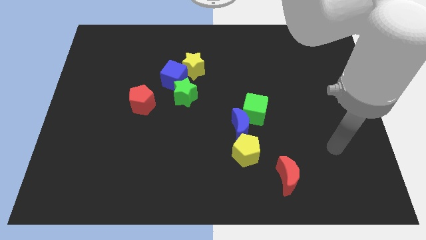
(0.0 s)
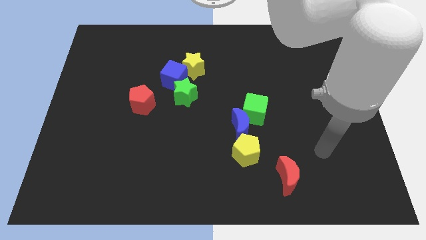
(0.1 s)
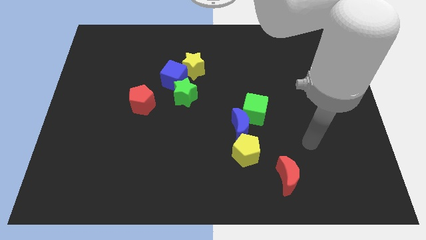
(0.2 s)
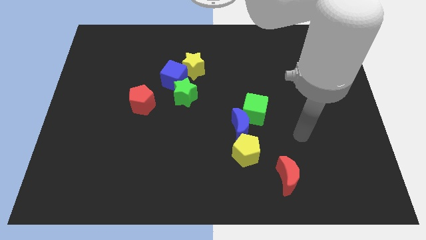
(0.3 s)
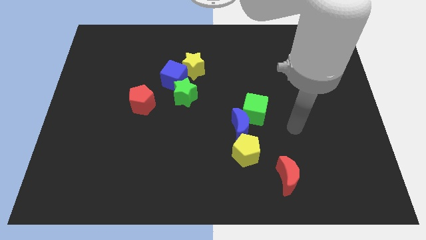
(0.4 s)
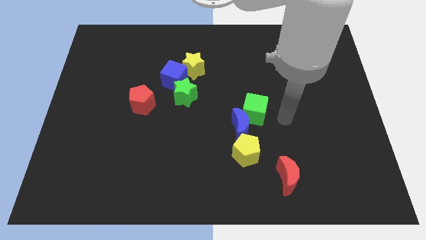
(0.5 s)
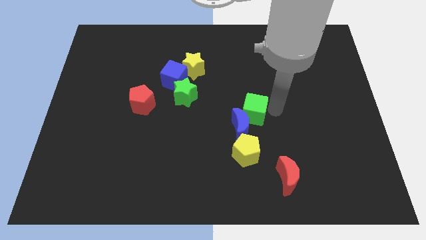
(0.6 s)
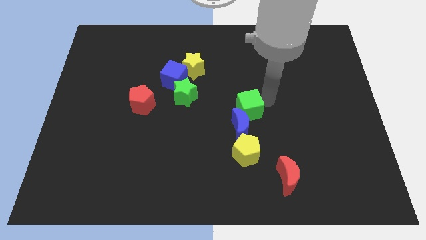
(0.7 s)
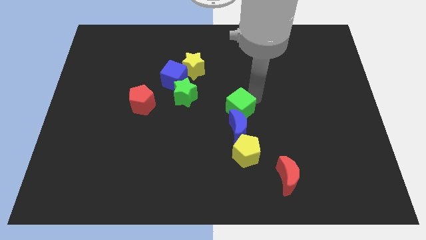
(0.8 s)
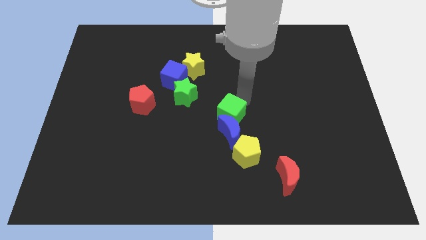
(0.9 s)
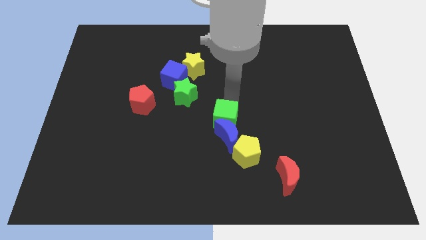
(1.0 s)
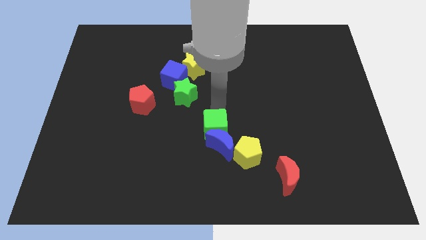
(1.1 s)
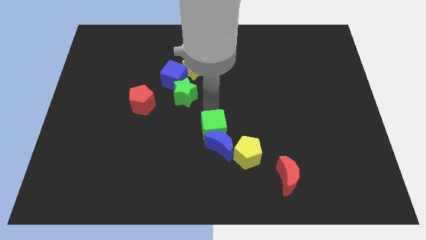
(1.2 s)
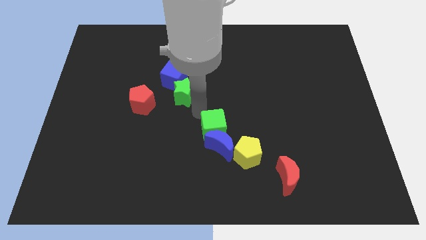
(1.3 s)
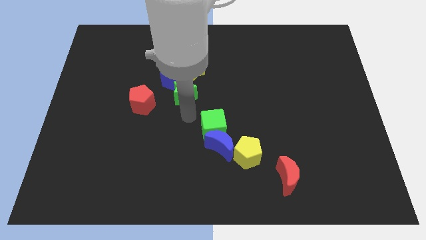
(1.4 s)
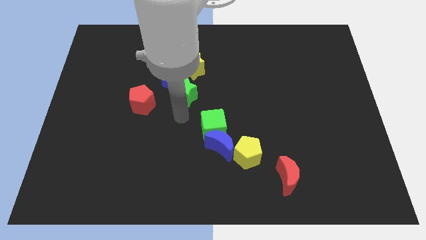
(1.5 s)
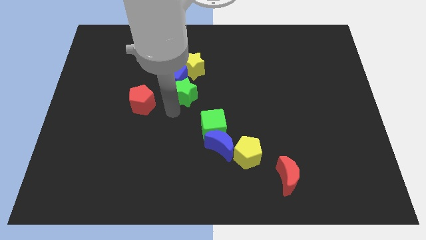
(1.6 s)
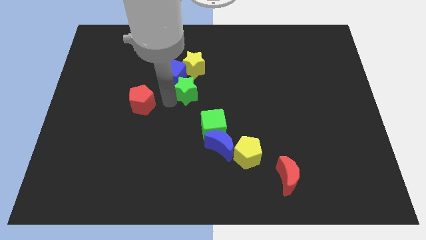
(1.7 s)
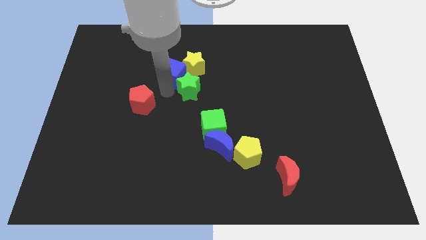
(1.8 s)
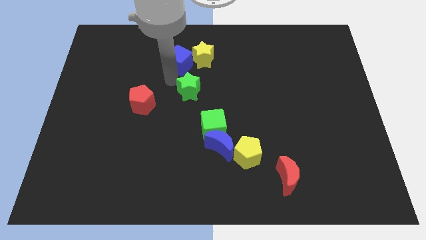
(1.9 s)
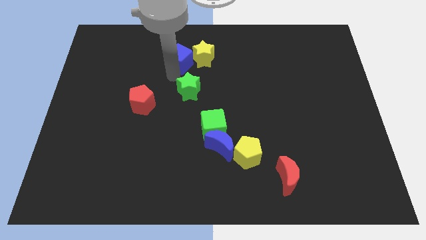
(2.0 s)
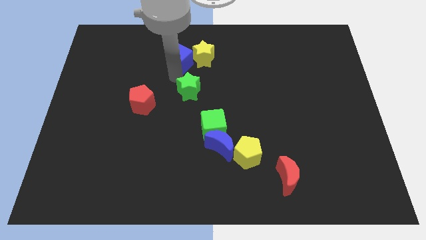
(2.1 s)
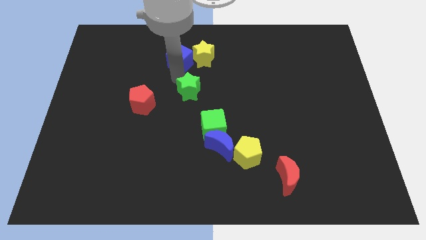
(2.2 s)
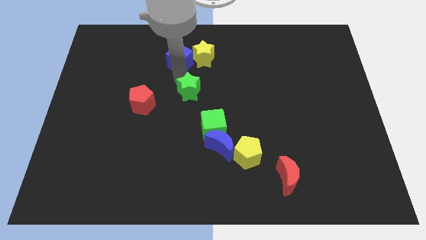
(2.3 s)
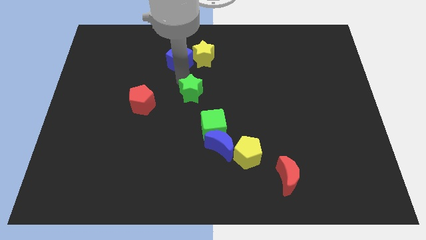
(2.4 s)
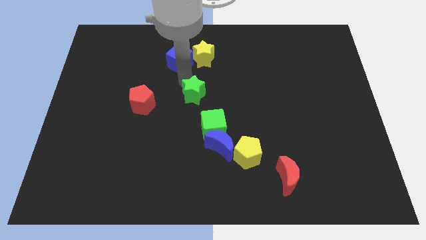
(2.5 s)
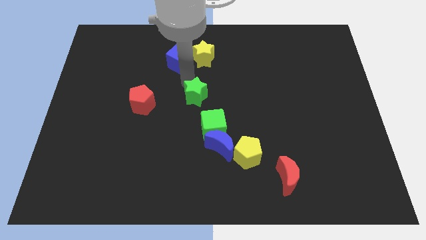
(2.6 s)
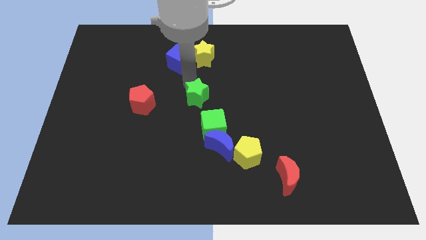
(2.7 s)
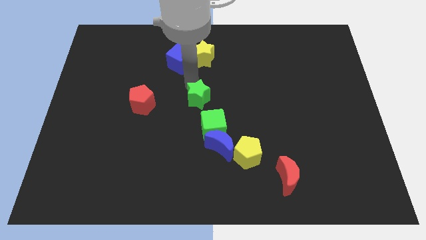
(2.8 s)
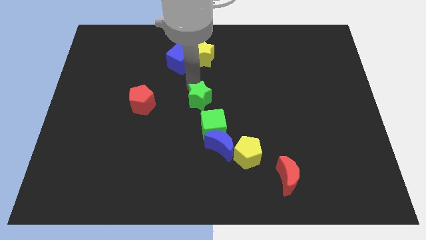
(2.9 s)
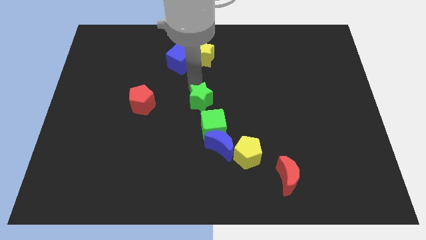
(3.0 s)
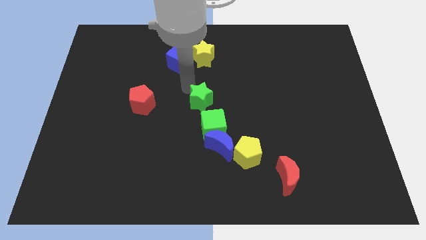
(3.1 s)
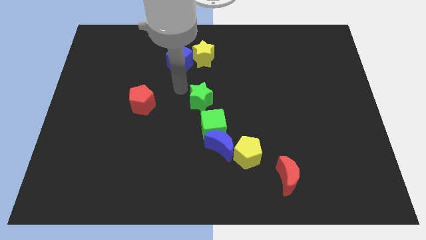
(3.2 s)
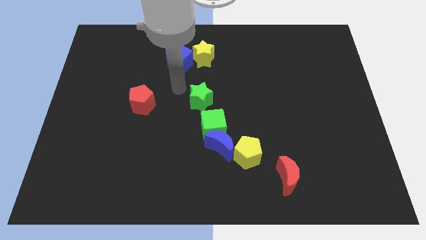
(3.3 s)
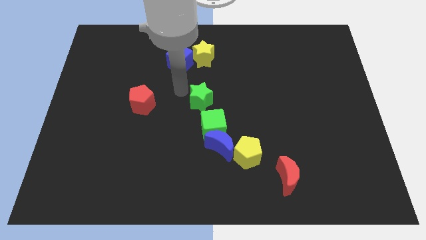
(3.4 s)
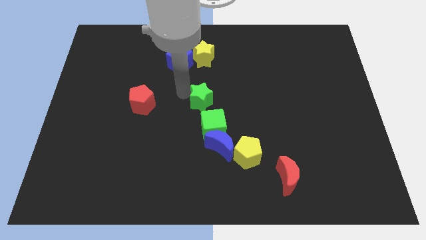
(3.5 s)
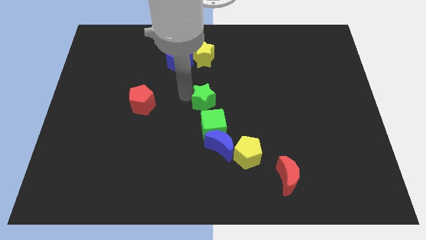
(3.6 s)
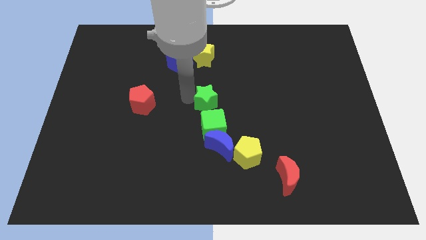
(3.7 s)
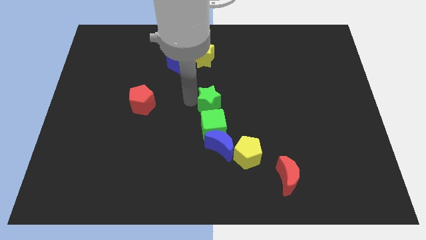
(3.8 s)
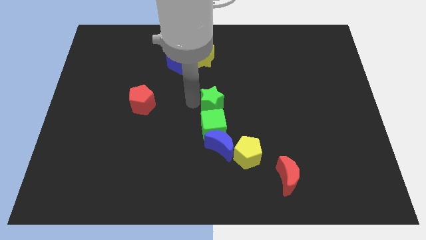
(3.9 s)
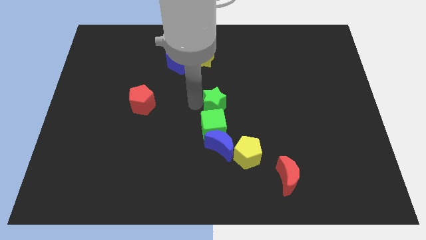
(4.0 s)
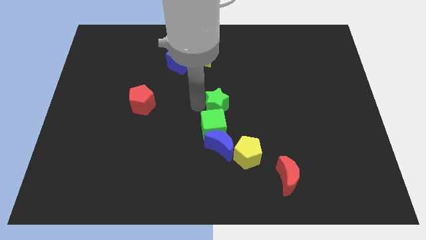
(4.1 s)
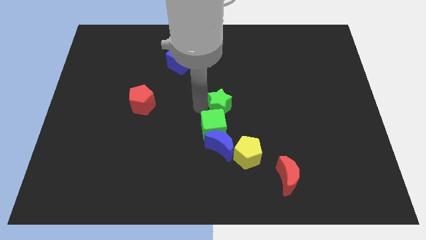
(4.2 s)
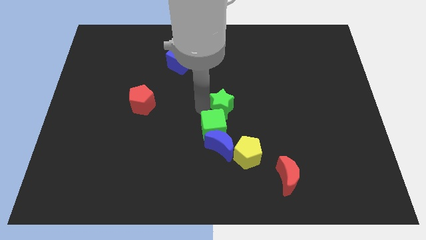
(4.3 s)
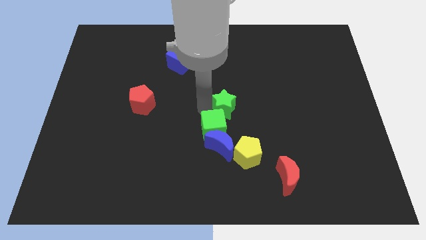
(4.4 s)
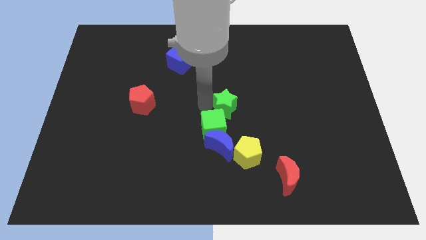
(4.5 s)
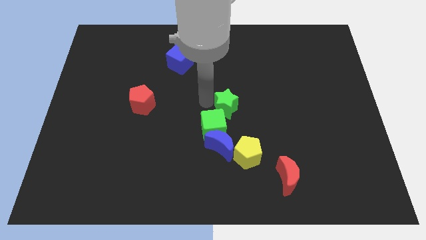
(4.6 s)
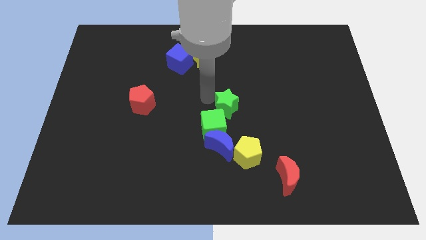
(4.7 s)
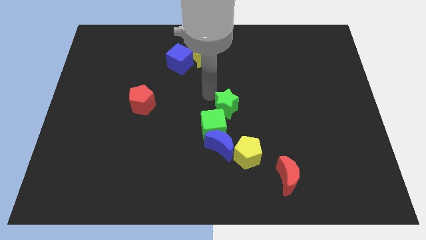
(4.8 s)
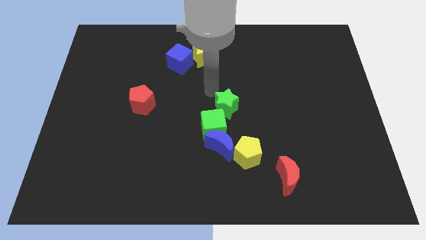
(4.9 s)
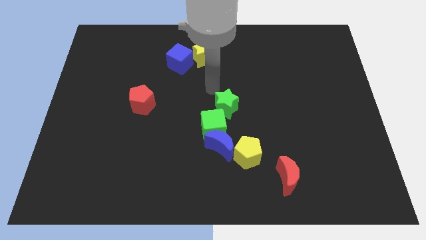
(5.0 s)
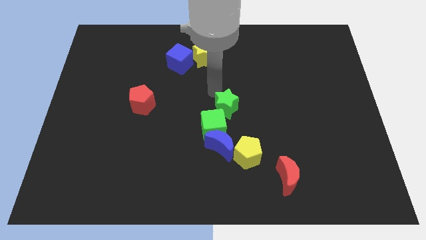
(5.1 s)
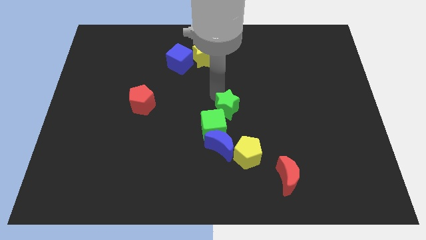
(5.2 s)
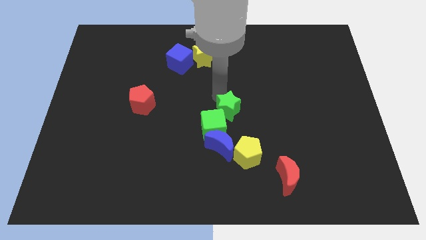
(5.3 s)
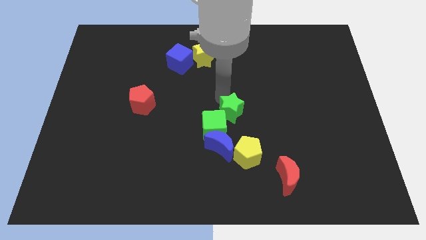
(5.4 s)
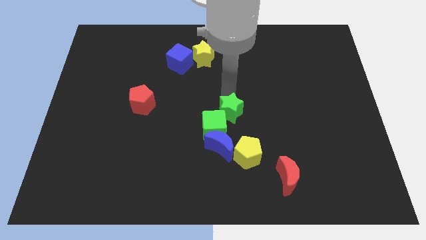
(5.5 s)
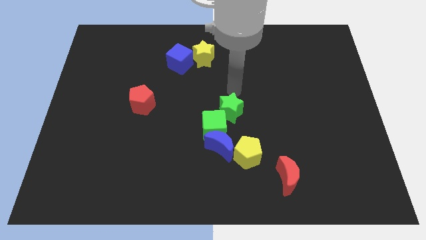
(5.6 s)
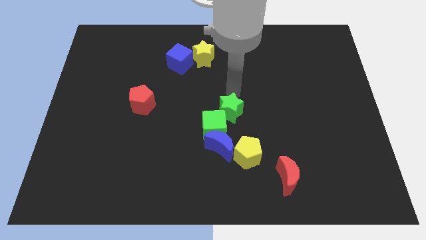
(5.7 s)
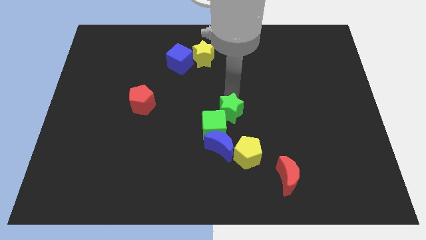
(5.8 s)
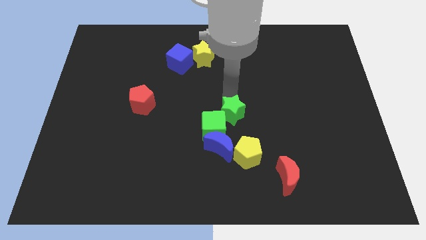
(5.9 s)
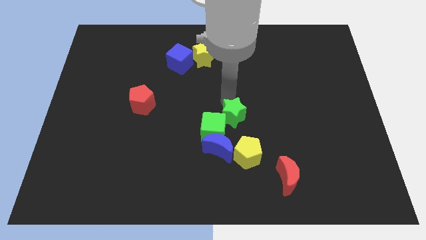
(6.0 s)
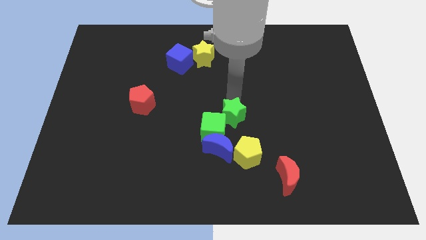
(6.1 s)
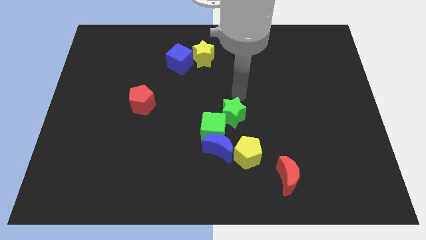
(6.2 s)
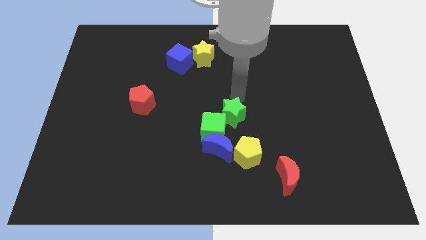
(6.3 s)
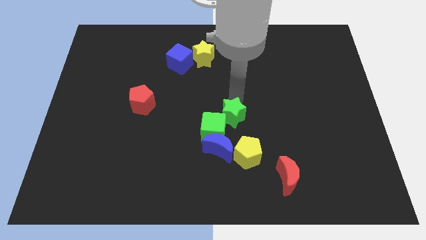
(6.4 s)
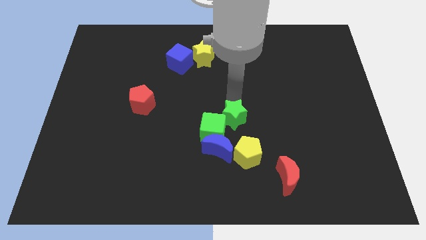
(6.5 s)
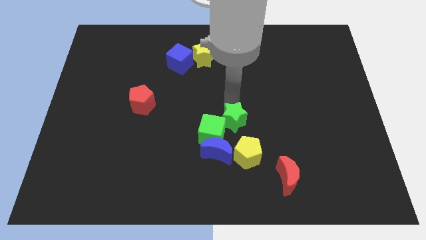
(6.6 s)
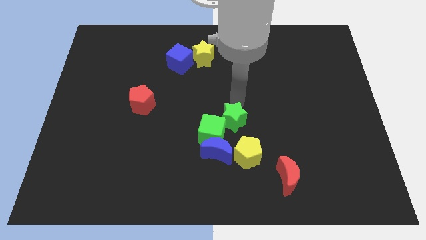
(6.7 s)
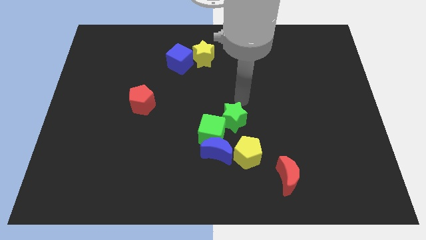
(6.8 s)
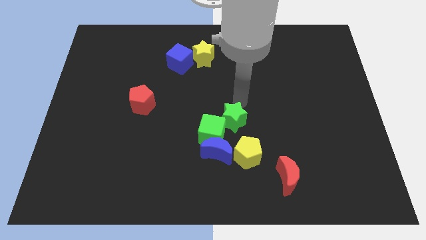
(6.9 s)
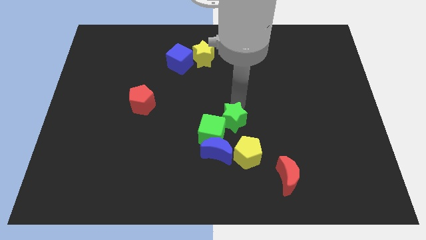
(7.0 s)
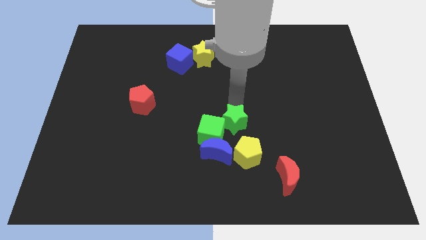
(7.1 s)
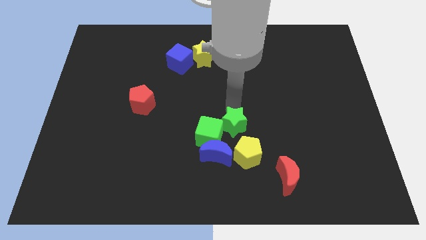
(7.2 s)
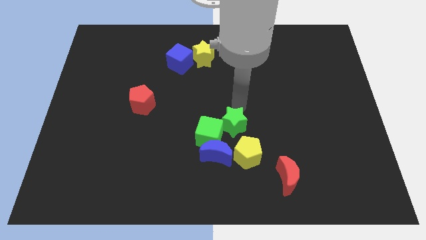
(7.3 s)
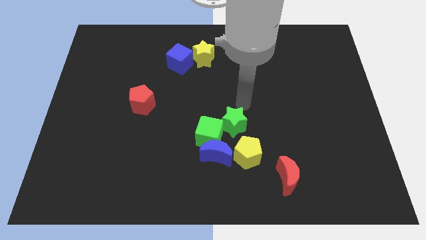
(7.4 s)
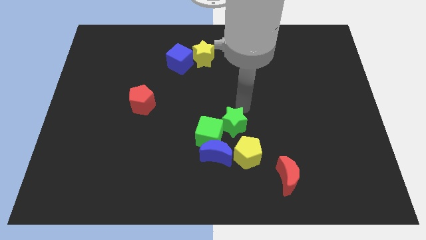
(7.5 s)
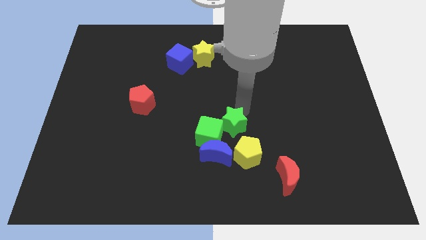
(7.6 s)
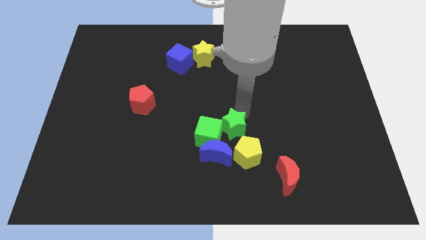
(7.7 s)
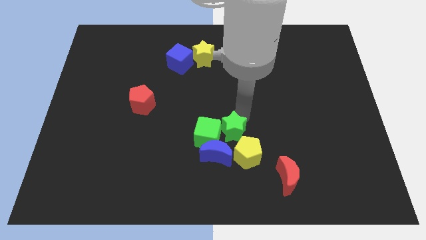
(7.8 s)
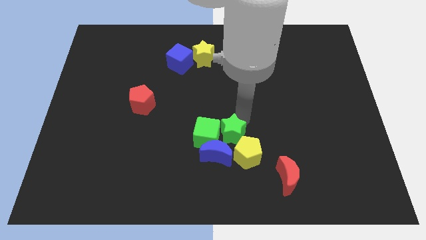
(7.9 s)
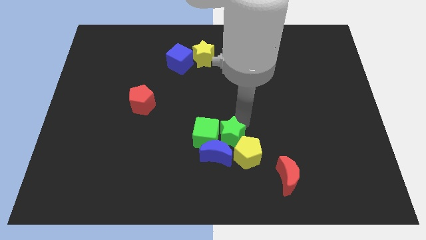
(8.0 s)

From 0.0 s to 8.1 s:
put the green star to the blue moon
